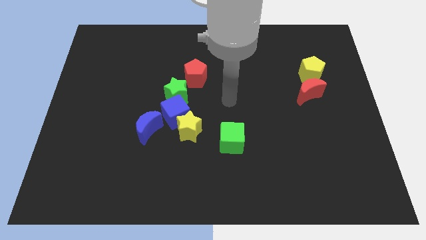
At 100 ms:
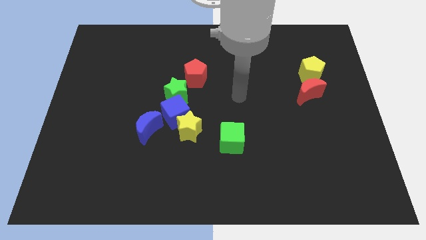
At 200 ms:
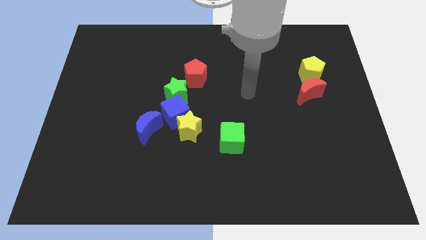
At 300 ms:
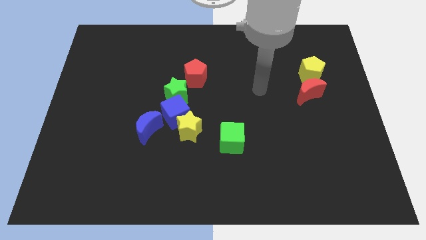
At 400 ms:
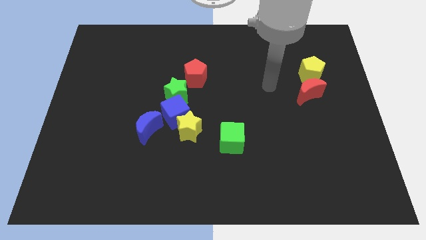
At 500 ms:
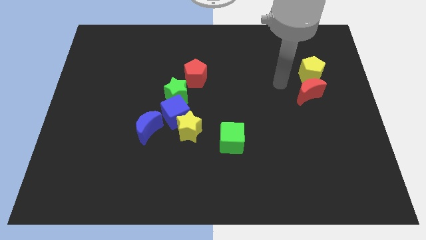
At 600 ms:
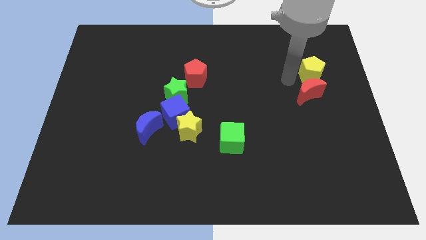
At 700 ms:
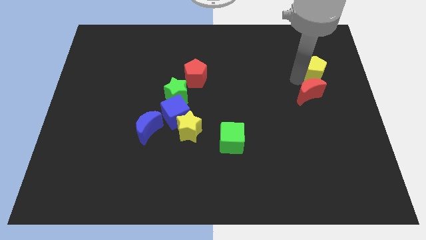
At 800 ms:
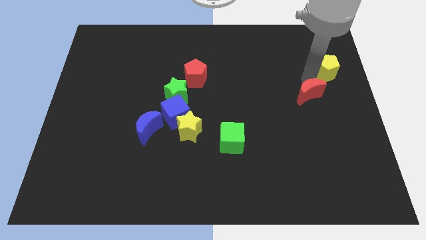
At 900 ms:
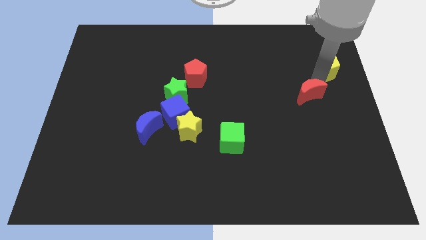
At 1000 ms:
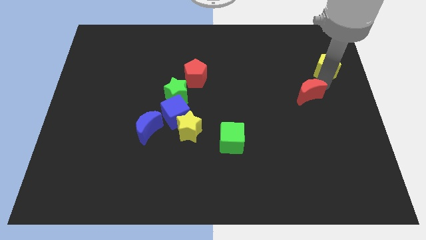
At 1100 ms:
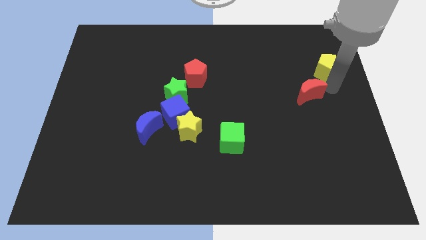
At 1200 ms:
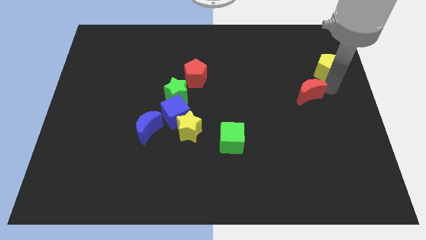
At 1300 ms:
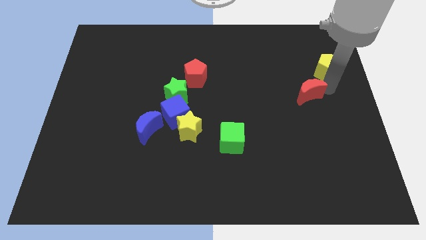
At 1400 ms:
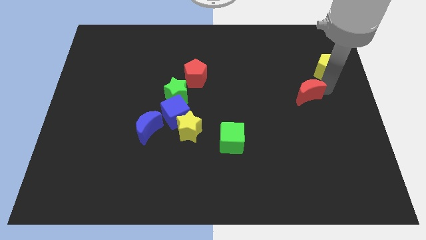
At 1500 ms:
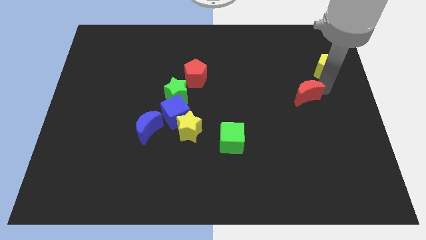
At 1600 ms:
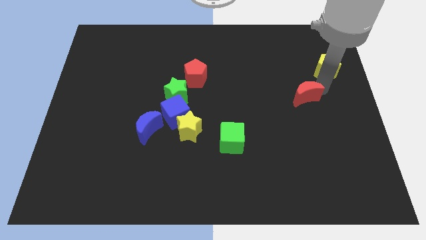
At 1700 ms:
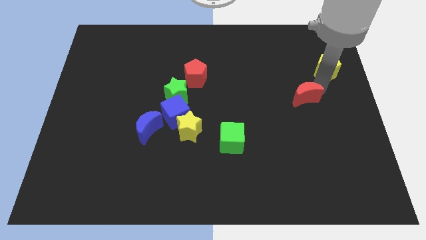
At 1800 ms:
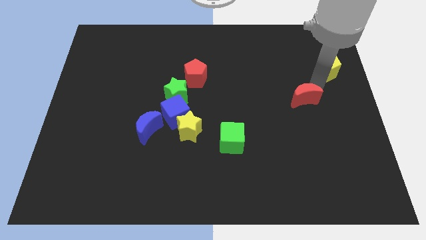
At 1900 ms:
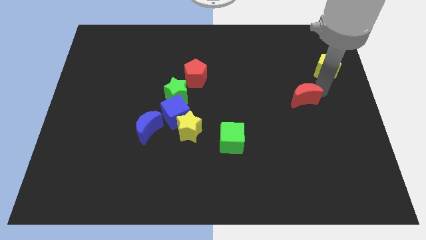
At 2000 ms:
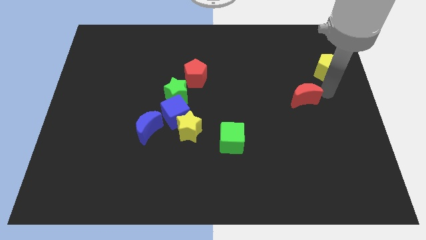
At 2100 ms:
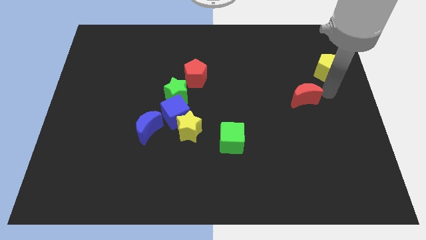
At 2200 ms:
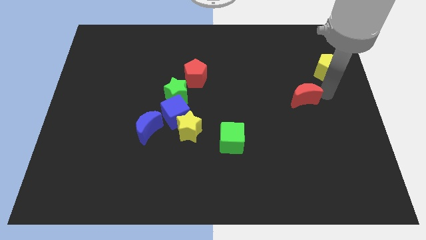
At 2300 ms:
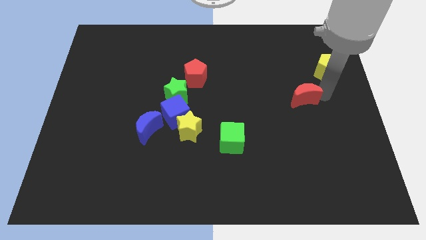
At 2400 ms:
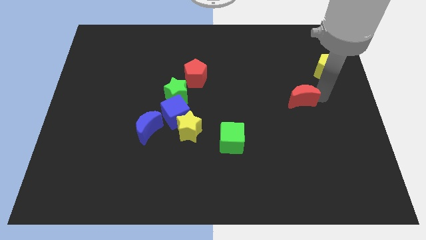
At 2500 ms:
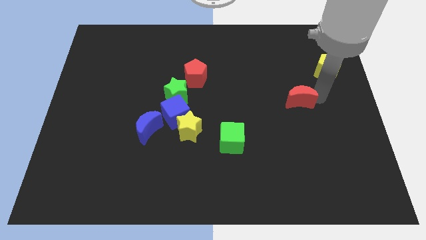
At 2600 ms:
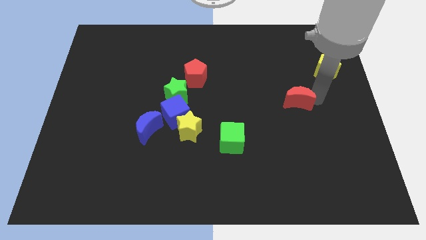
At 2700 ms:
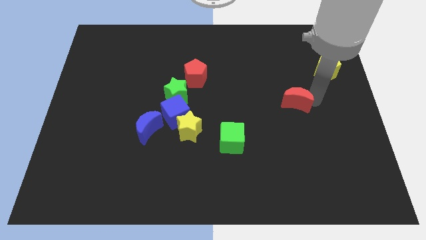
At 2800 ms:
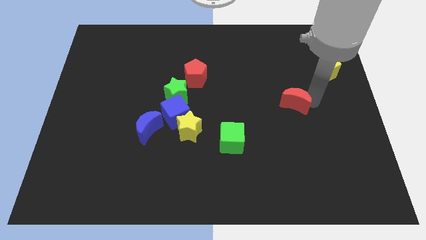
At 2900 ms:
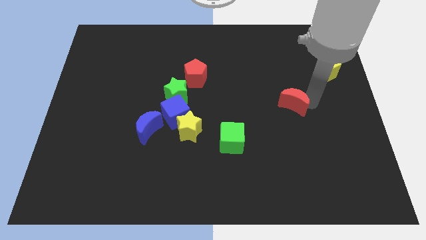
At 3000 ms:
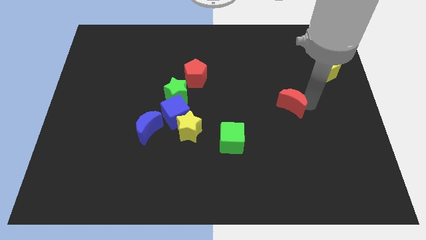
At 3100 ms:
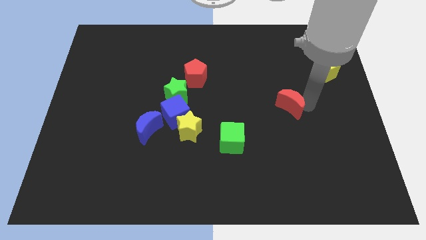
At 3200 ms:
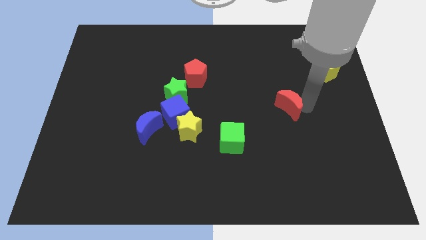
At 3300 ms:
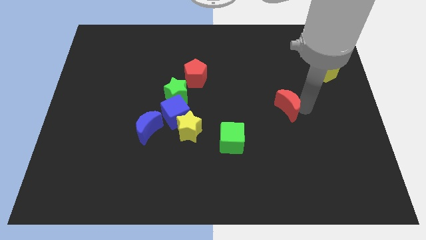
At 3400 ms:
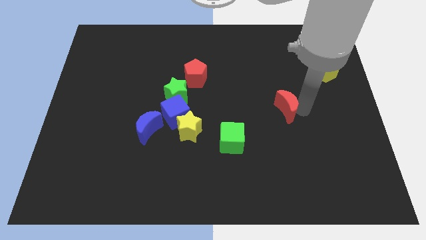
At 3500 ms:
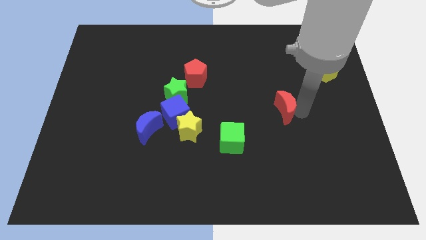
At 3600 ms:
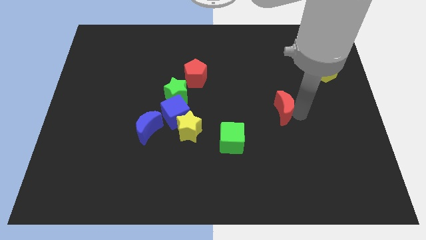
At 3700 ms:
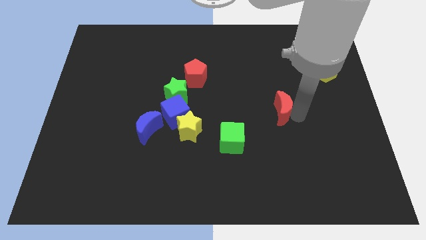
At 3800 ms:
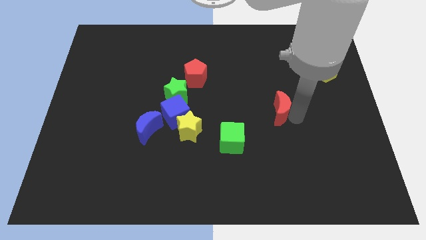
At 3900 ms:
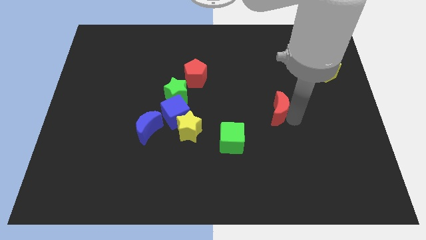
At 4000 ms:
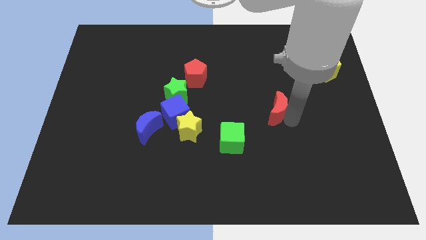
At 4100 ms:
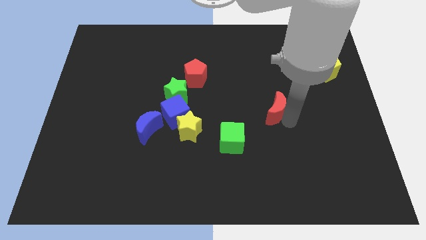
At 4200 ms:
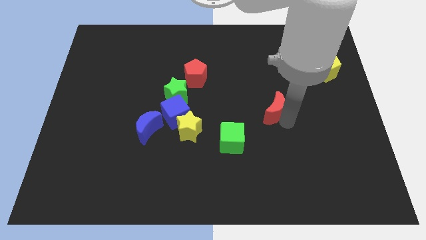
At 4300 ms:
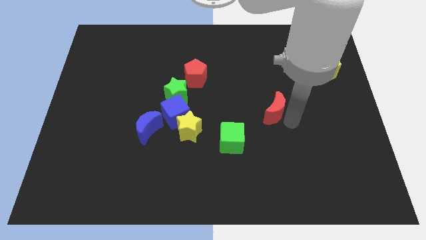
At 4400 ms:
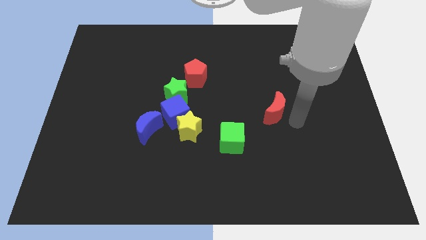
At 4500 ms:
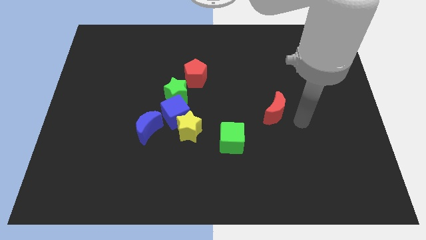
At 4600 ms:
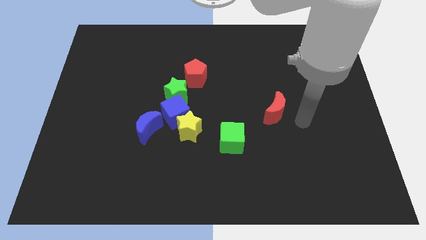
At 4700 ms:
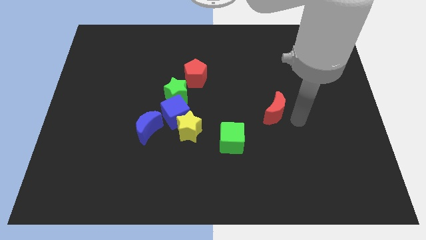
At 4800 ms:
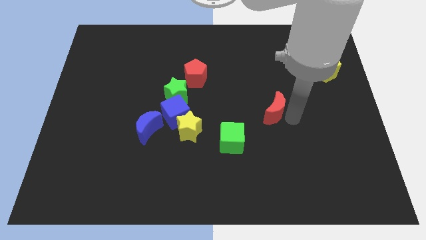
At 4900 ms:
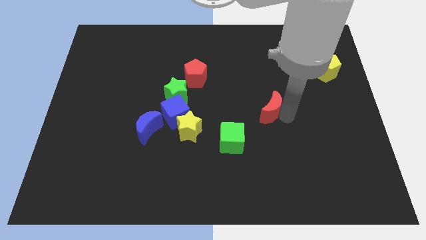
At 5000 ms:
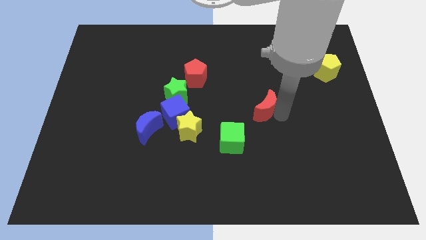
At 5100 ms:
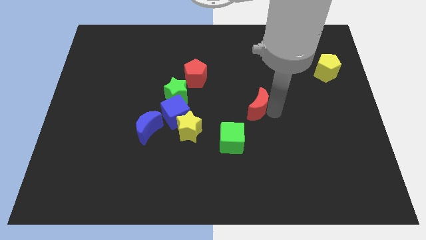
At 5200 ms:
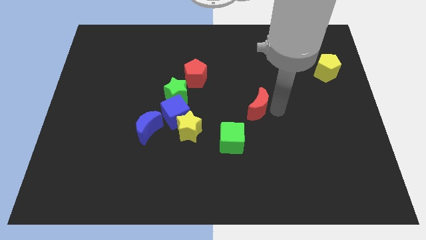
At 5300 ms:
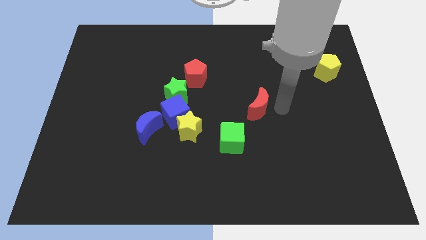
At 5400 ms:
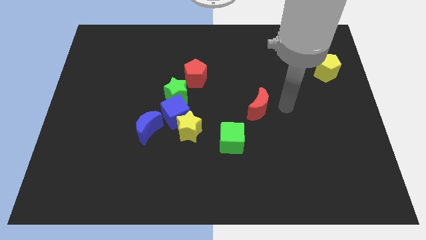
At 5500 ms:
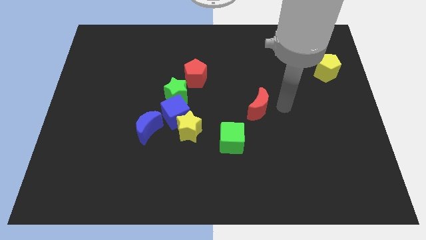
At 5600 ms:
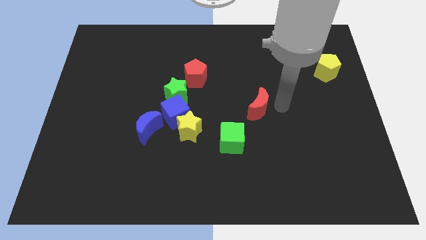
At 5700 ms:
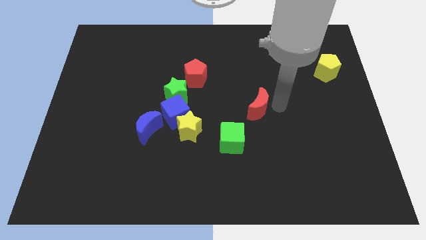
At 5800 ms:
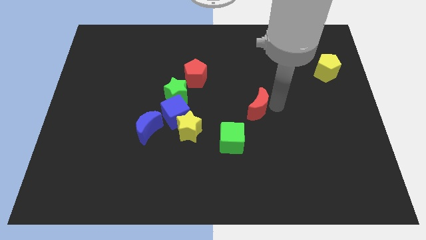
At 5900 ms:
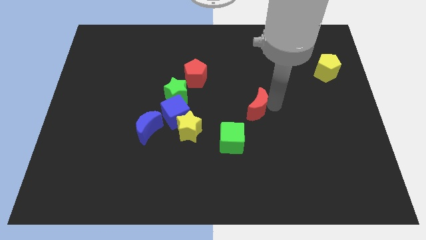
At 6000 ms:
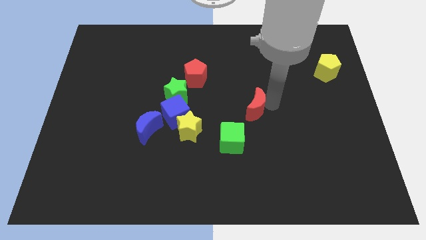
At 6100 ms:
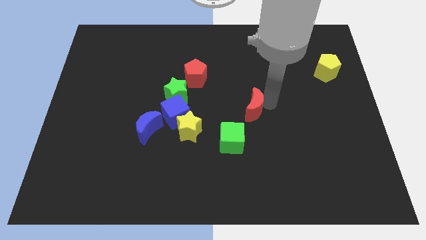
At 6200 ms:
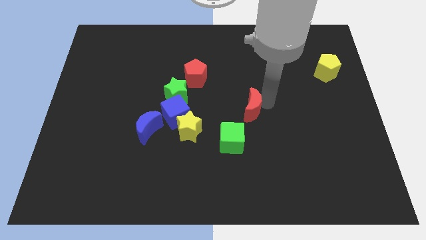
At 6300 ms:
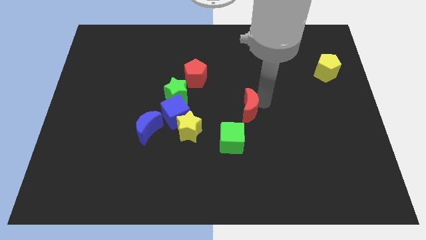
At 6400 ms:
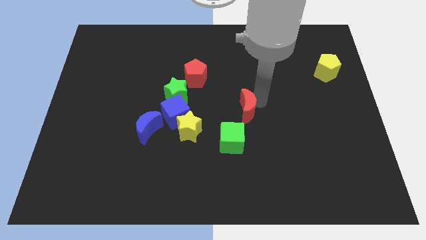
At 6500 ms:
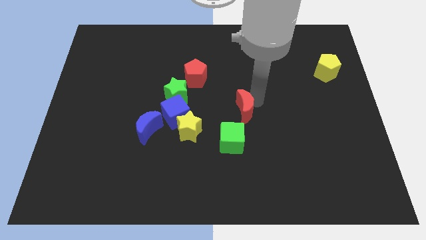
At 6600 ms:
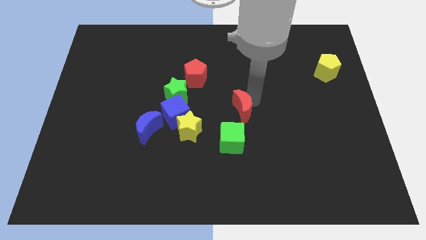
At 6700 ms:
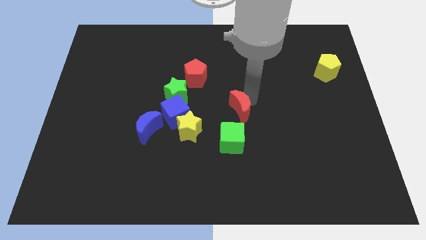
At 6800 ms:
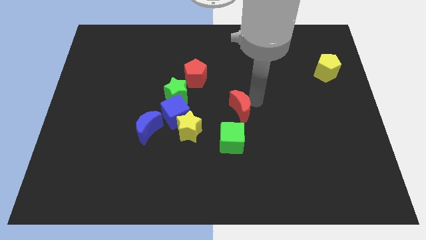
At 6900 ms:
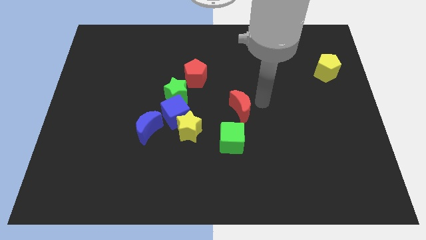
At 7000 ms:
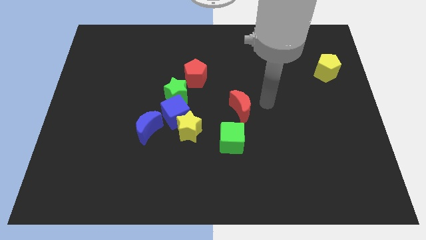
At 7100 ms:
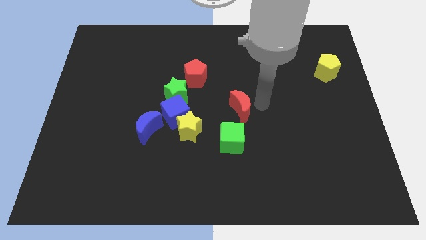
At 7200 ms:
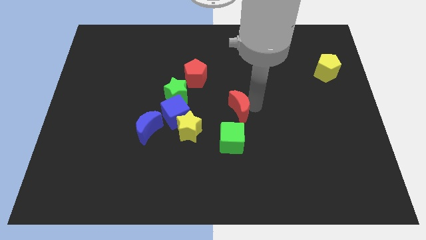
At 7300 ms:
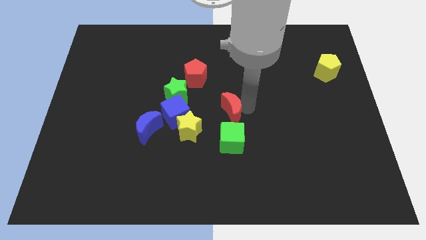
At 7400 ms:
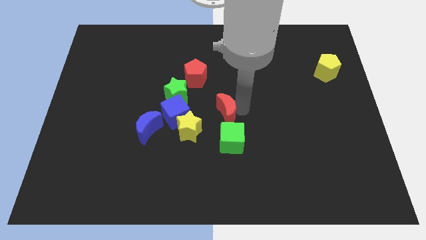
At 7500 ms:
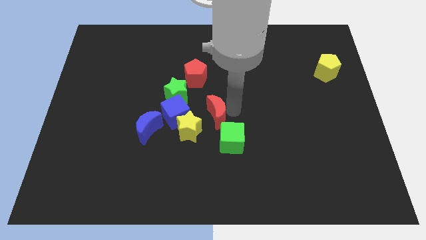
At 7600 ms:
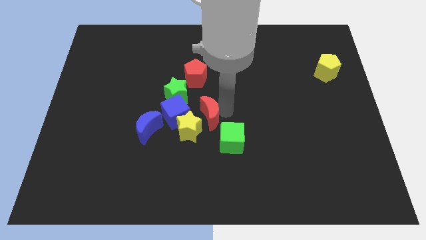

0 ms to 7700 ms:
slide the red moon next to the yellow star

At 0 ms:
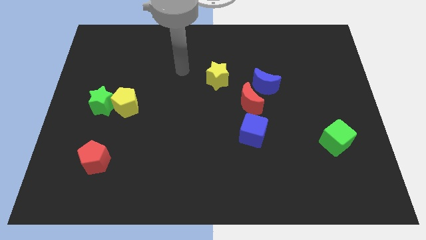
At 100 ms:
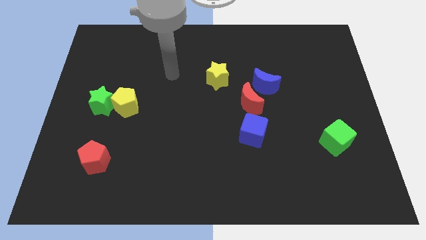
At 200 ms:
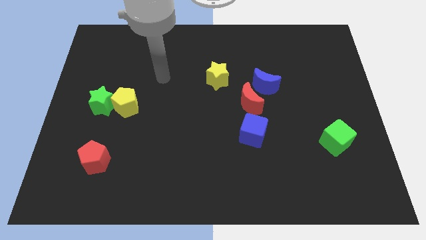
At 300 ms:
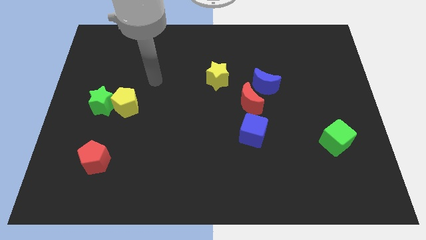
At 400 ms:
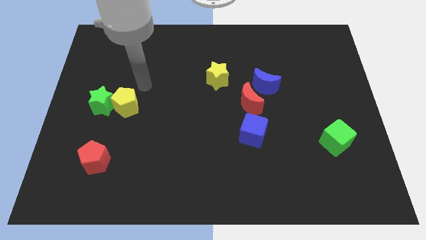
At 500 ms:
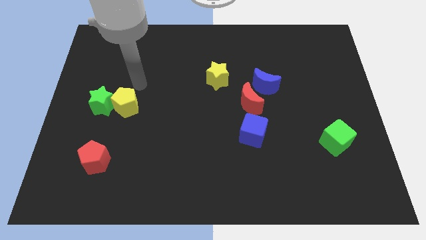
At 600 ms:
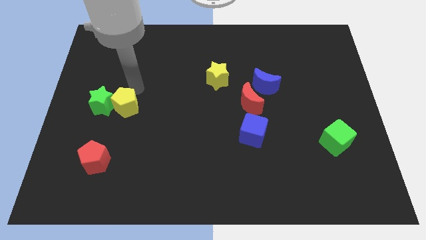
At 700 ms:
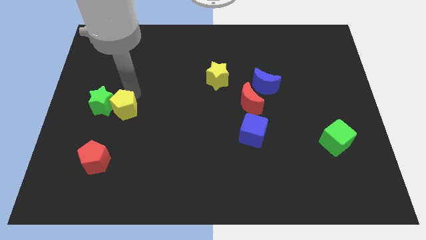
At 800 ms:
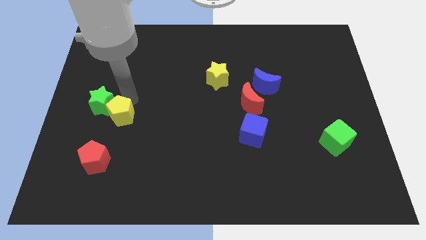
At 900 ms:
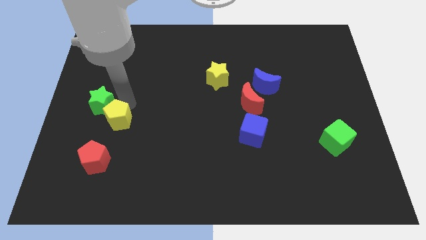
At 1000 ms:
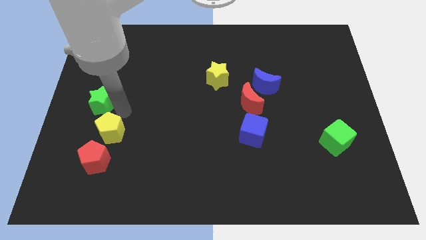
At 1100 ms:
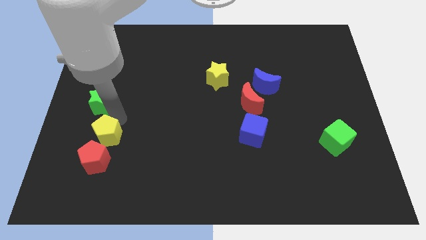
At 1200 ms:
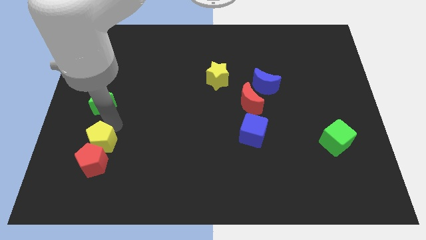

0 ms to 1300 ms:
move the yellow pentagon to the red pentagon
